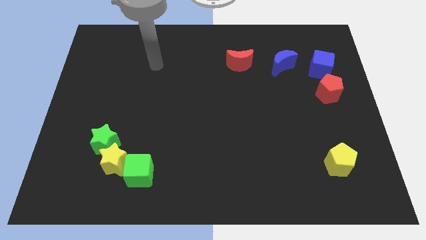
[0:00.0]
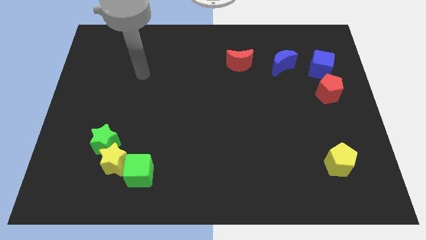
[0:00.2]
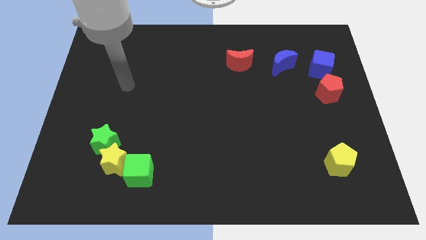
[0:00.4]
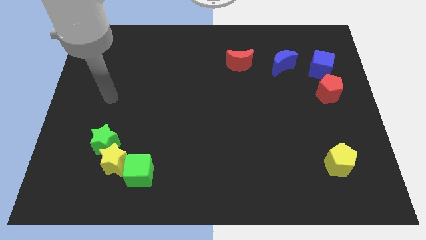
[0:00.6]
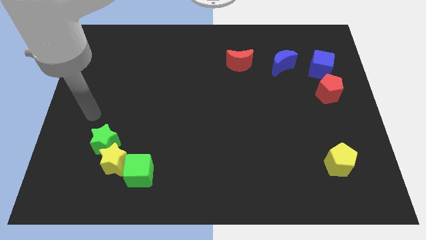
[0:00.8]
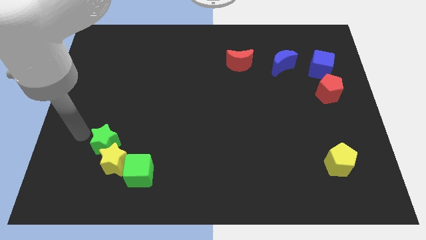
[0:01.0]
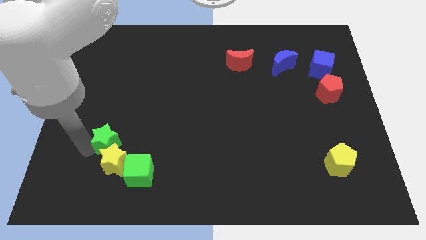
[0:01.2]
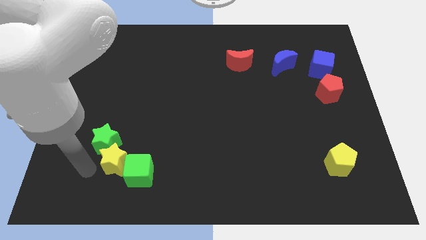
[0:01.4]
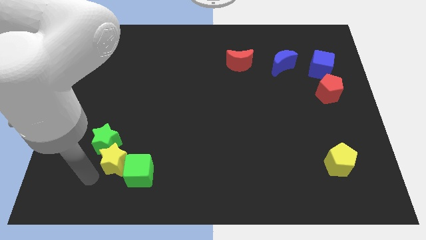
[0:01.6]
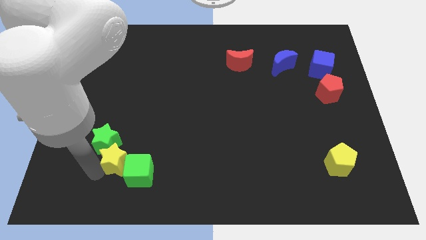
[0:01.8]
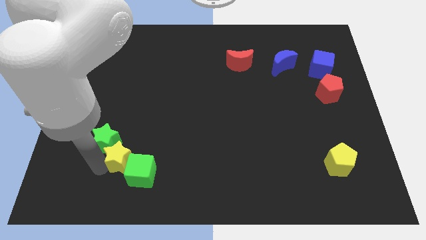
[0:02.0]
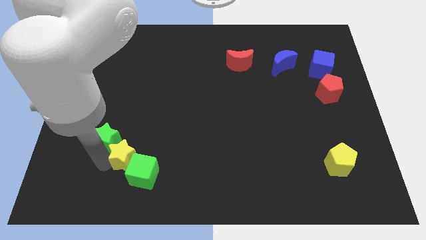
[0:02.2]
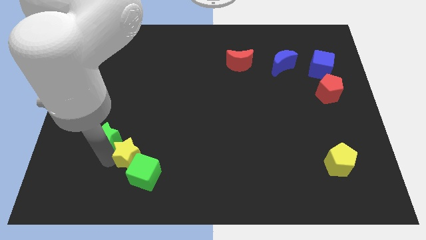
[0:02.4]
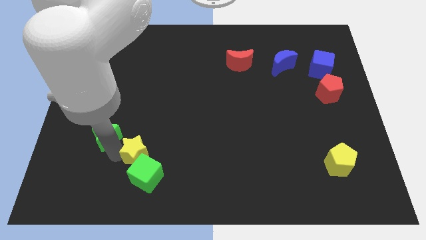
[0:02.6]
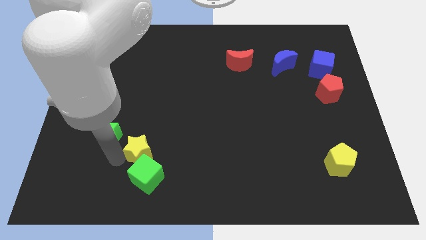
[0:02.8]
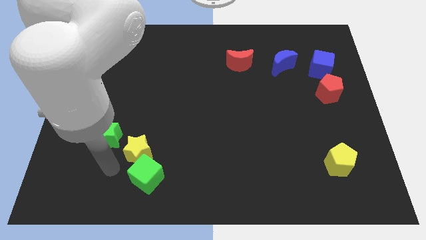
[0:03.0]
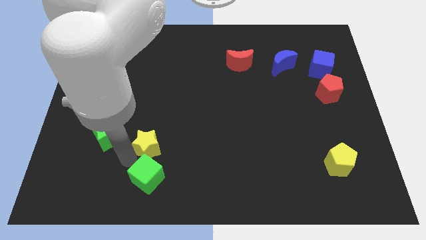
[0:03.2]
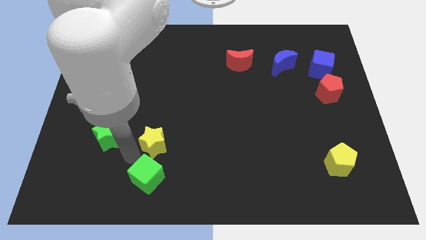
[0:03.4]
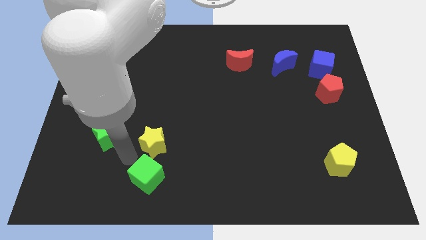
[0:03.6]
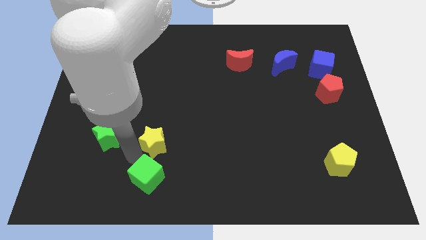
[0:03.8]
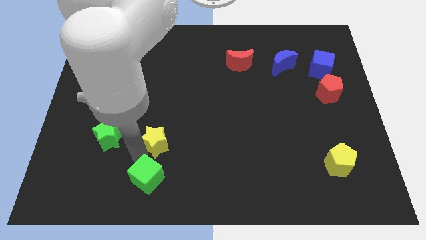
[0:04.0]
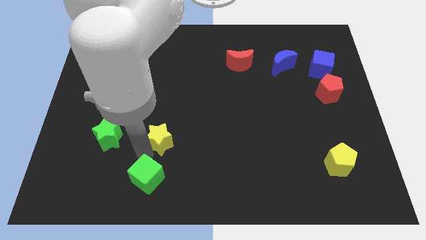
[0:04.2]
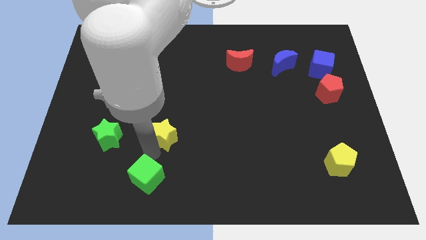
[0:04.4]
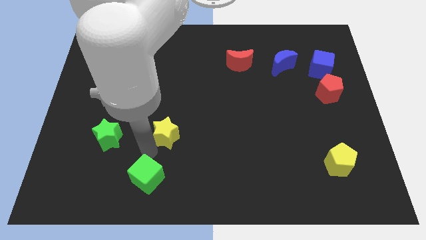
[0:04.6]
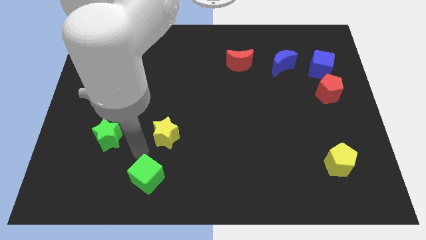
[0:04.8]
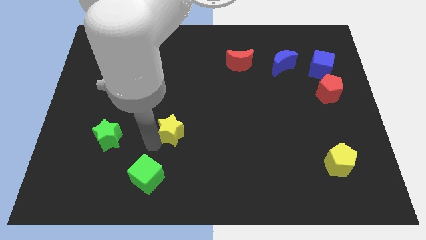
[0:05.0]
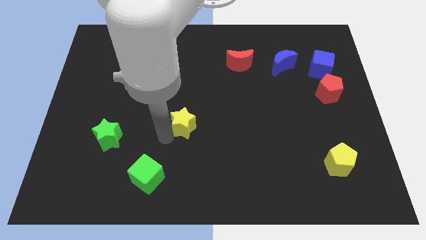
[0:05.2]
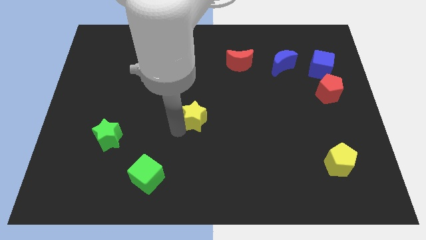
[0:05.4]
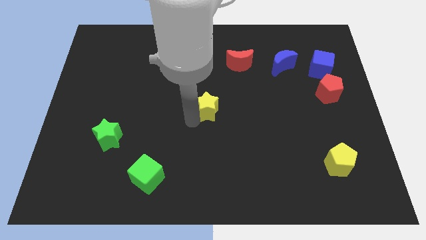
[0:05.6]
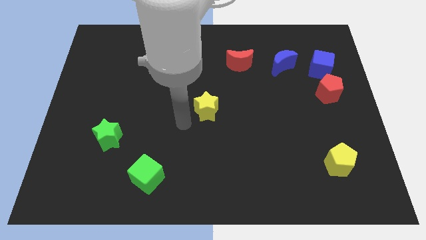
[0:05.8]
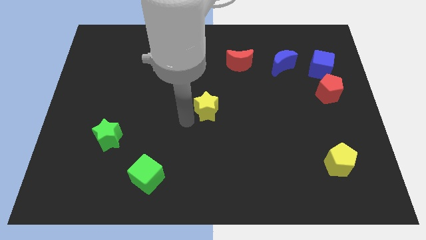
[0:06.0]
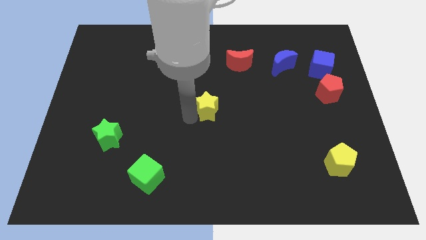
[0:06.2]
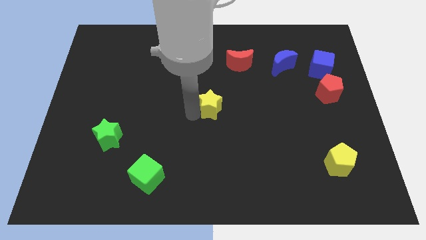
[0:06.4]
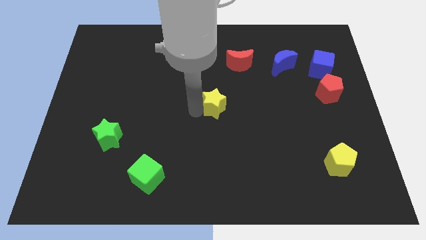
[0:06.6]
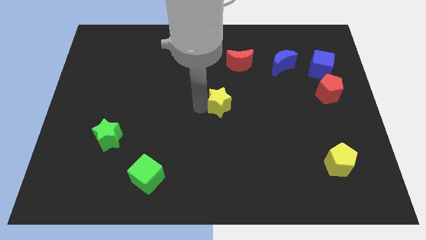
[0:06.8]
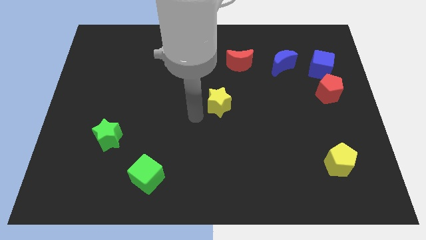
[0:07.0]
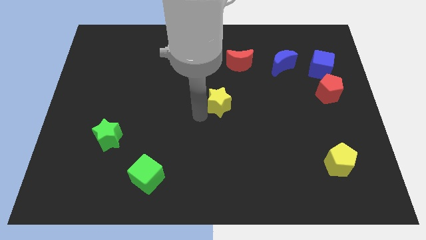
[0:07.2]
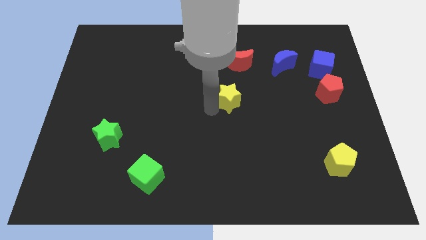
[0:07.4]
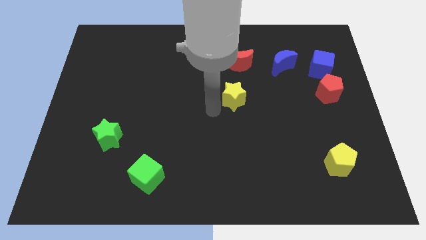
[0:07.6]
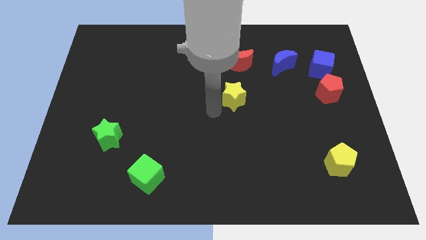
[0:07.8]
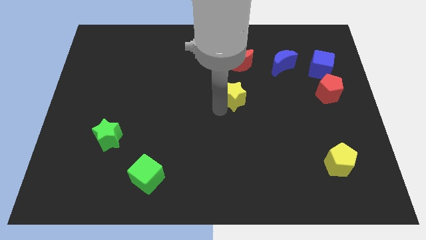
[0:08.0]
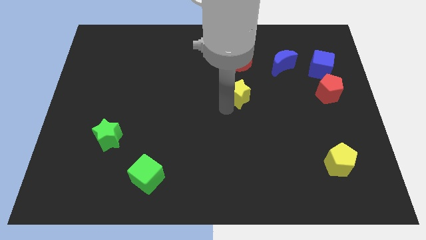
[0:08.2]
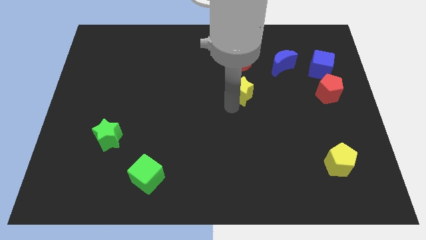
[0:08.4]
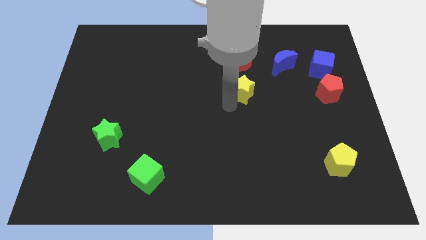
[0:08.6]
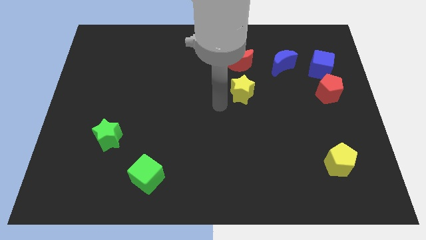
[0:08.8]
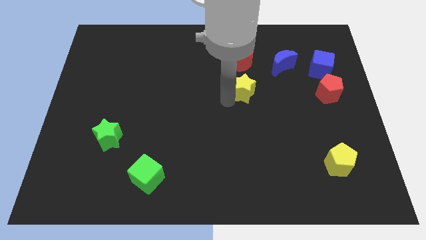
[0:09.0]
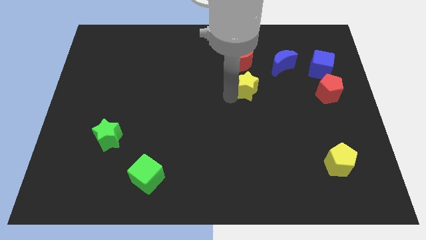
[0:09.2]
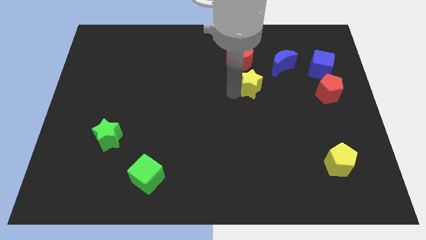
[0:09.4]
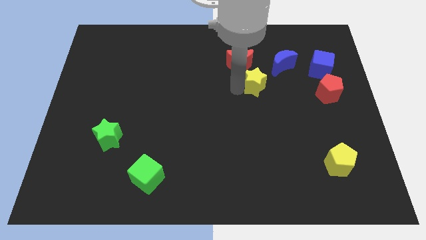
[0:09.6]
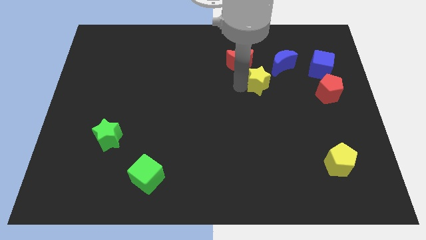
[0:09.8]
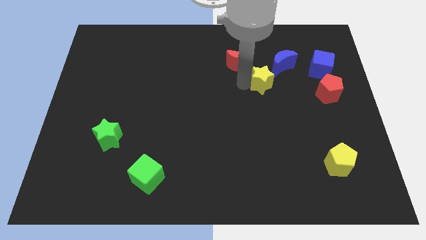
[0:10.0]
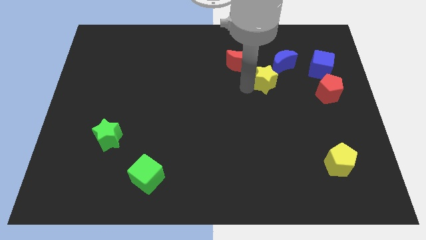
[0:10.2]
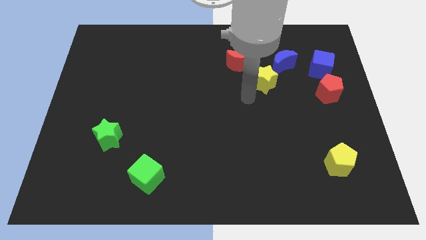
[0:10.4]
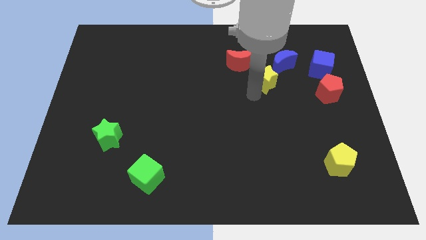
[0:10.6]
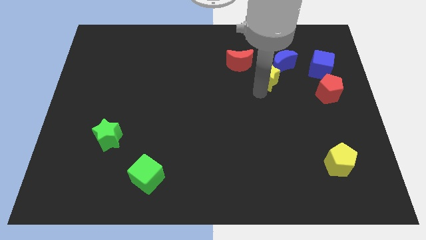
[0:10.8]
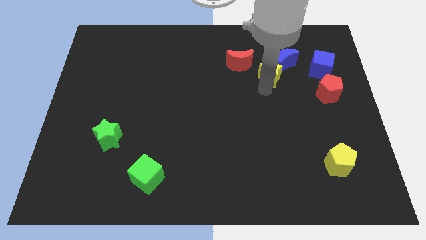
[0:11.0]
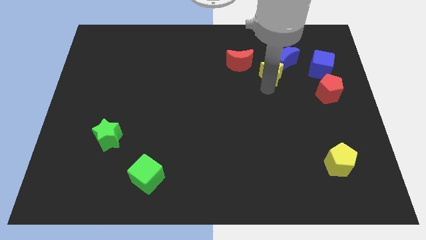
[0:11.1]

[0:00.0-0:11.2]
move the yellow star towards the blue moon
